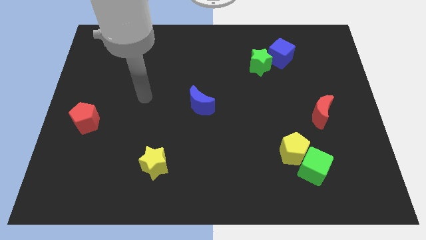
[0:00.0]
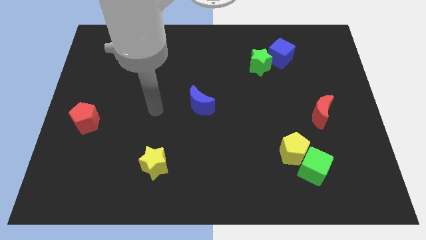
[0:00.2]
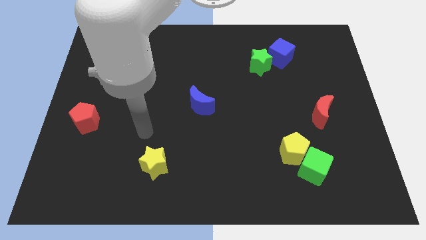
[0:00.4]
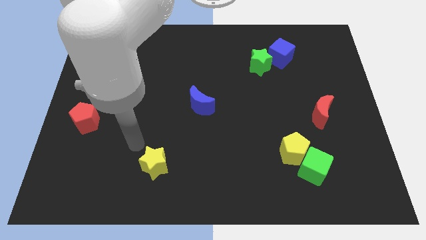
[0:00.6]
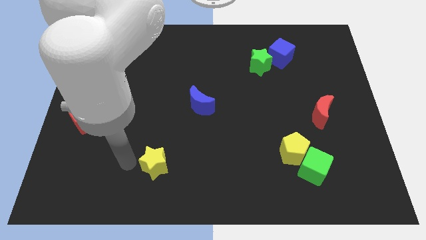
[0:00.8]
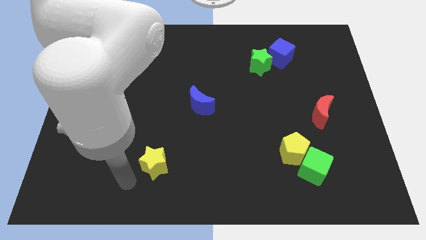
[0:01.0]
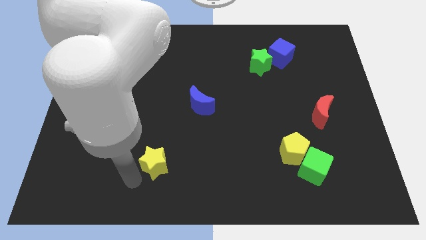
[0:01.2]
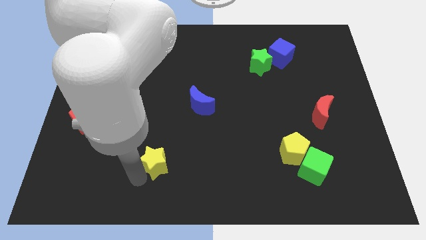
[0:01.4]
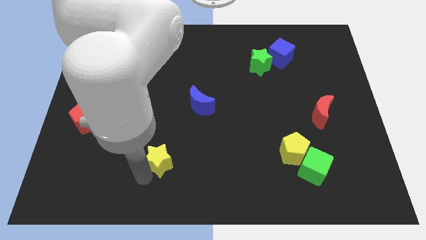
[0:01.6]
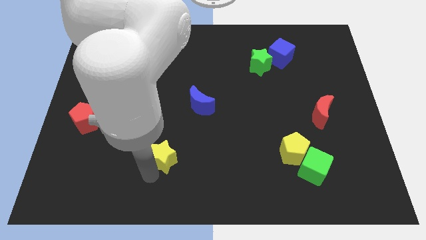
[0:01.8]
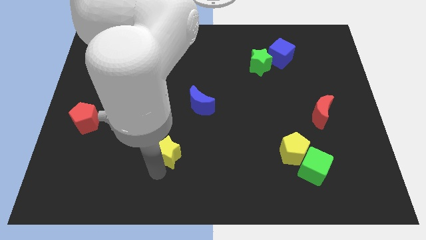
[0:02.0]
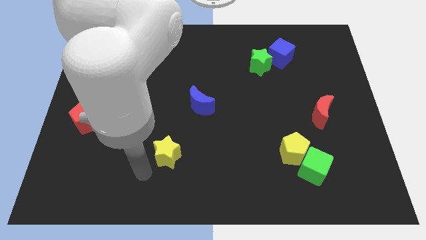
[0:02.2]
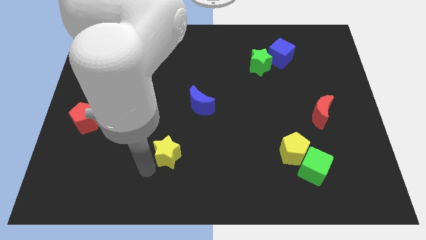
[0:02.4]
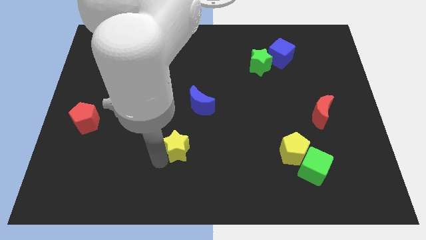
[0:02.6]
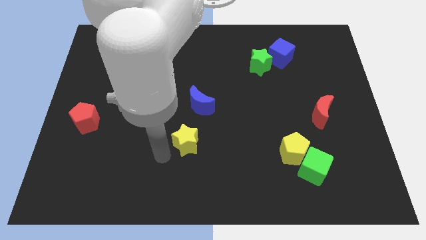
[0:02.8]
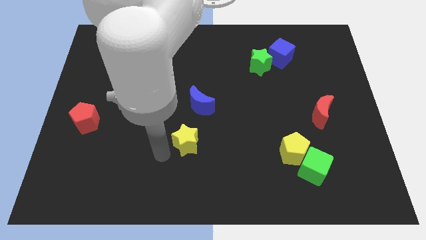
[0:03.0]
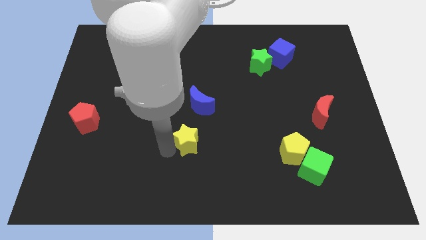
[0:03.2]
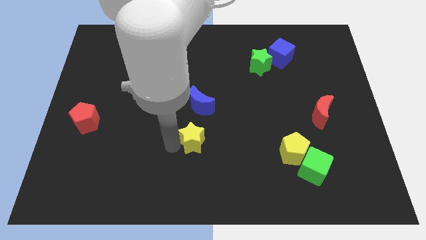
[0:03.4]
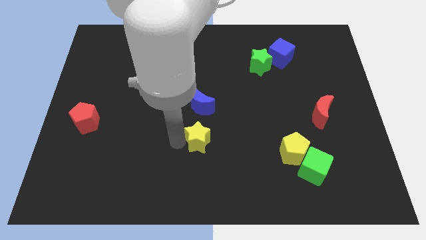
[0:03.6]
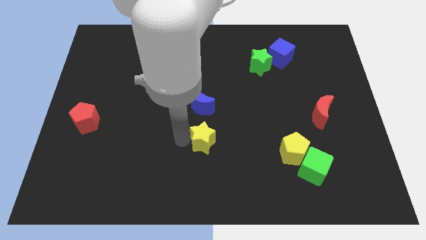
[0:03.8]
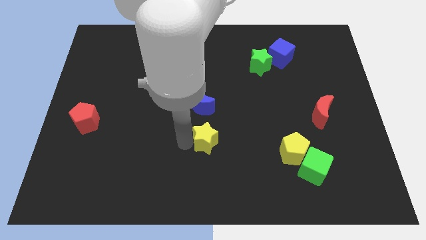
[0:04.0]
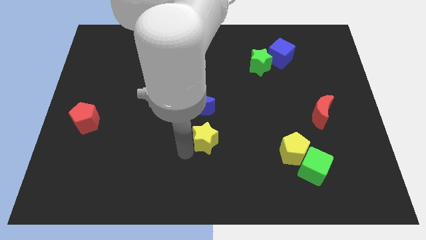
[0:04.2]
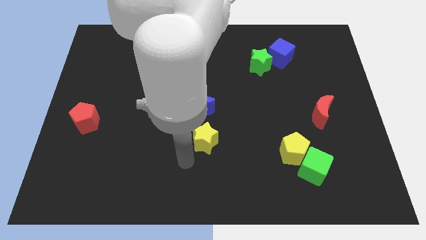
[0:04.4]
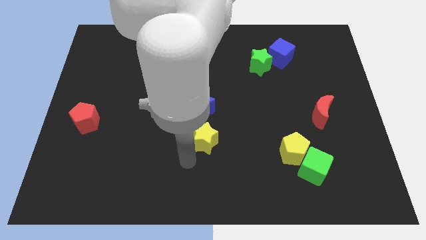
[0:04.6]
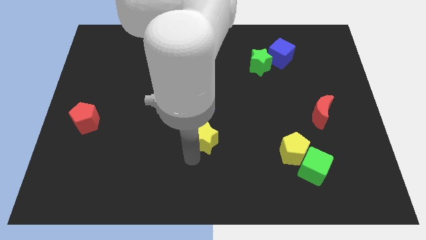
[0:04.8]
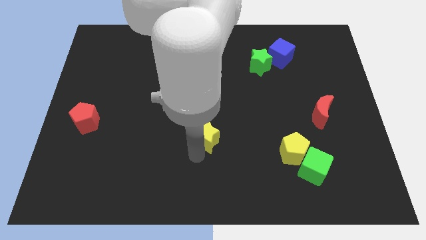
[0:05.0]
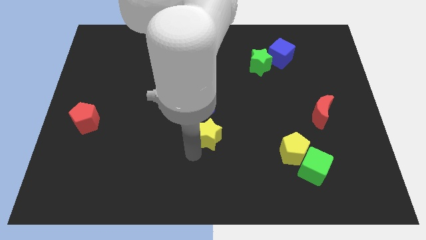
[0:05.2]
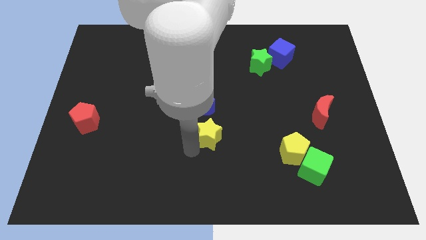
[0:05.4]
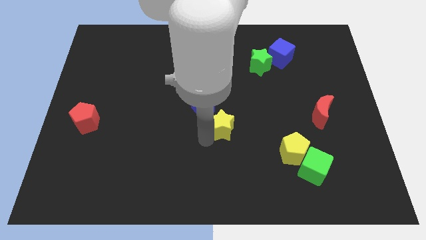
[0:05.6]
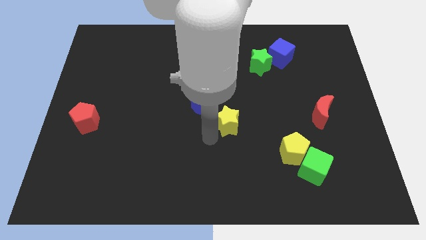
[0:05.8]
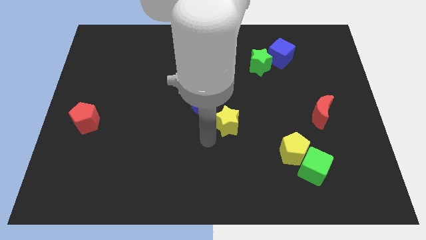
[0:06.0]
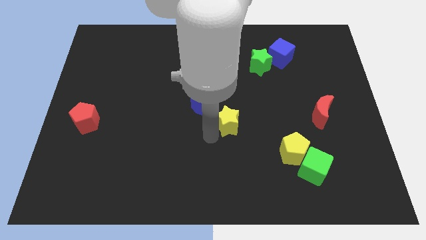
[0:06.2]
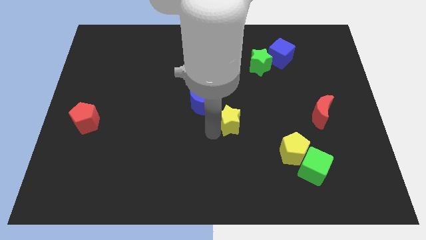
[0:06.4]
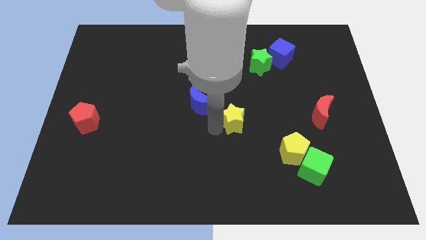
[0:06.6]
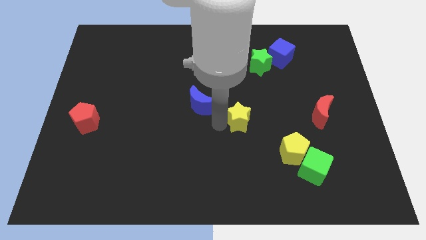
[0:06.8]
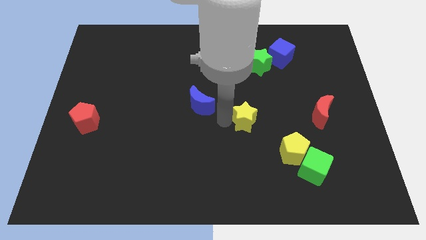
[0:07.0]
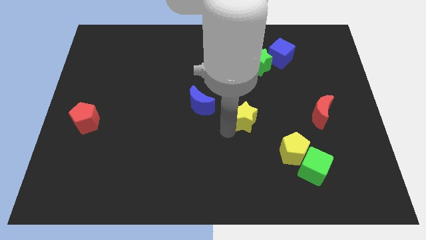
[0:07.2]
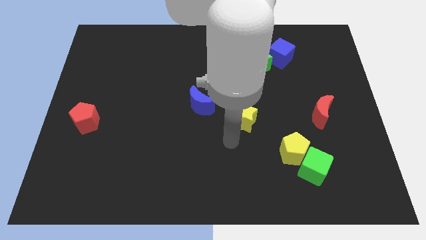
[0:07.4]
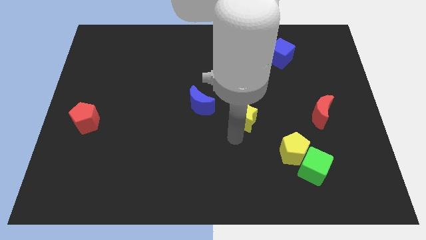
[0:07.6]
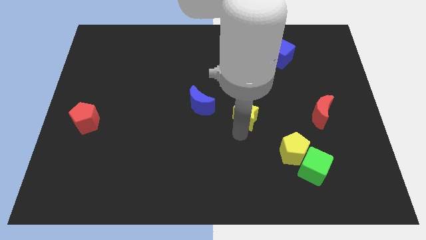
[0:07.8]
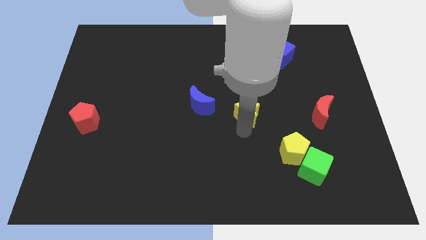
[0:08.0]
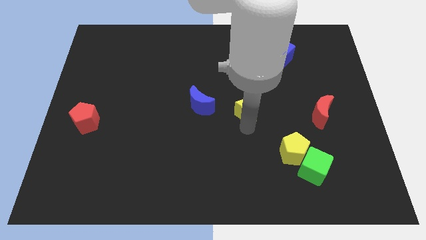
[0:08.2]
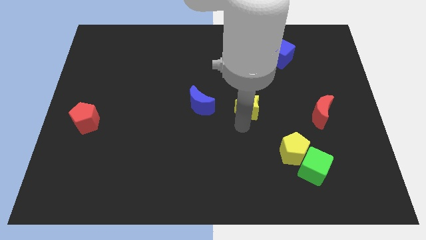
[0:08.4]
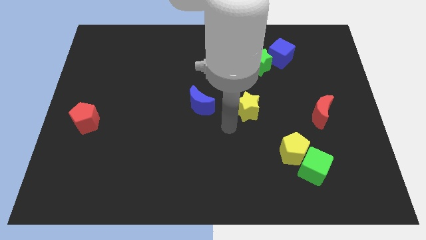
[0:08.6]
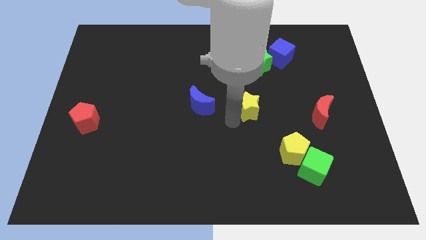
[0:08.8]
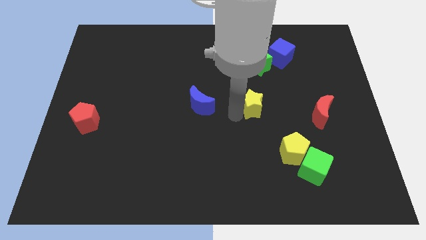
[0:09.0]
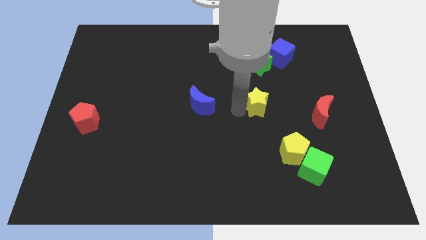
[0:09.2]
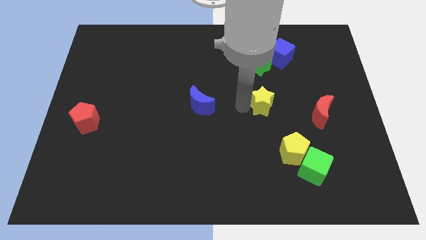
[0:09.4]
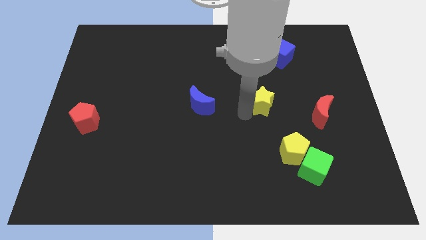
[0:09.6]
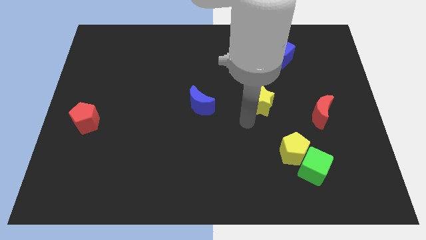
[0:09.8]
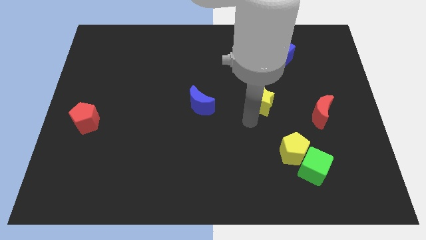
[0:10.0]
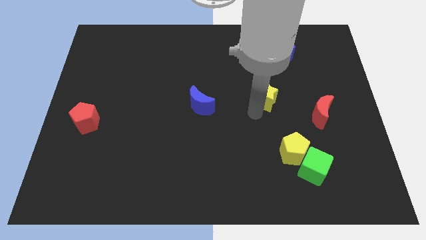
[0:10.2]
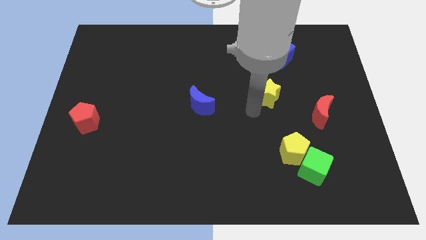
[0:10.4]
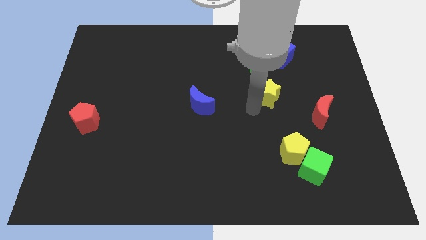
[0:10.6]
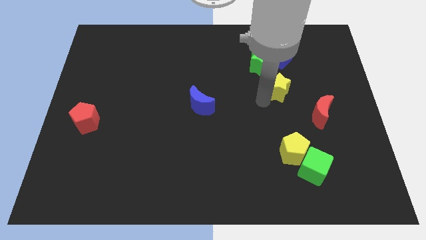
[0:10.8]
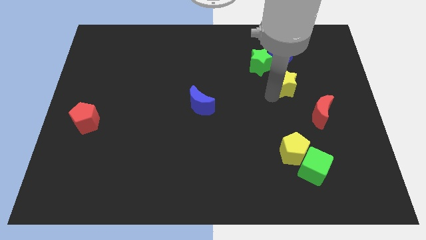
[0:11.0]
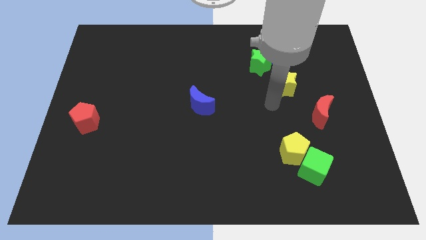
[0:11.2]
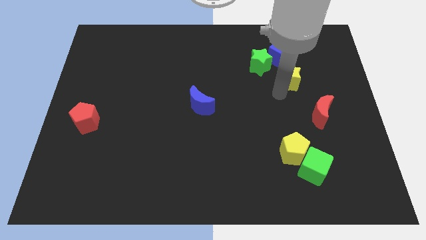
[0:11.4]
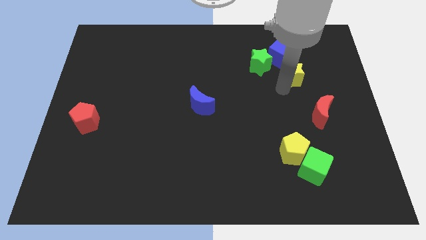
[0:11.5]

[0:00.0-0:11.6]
push the yellow star to the right of the green star

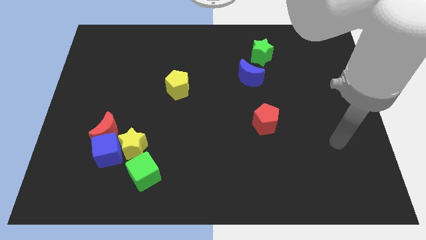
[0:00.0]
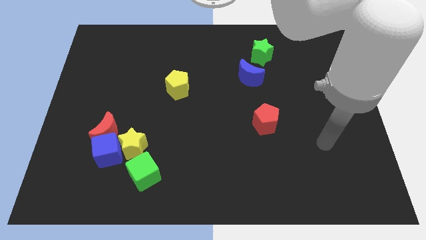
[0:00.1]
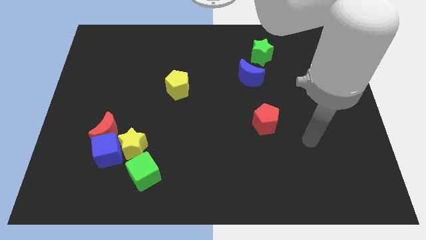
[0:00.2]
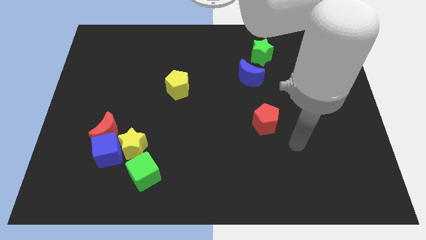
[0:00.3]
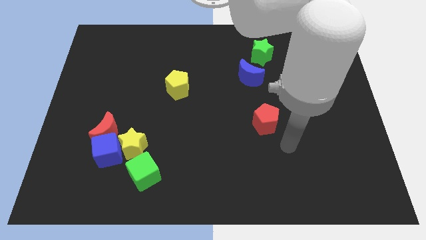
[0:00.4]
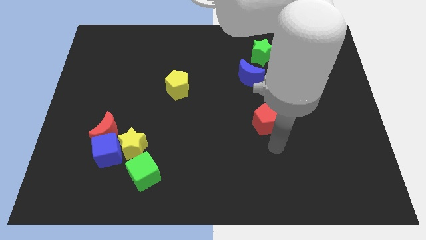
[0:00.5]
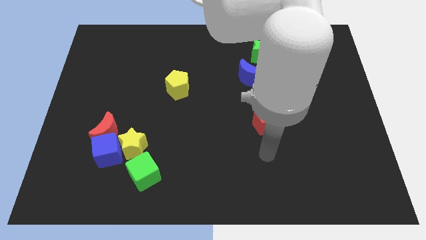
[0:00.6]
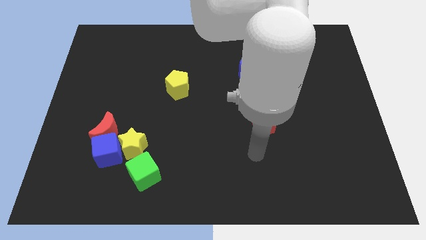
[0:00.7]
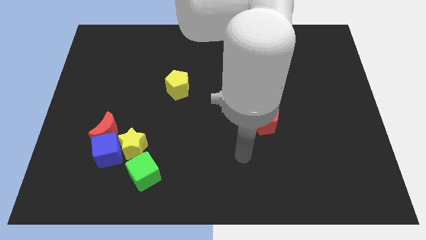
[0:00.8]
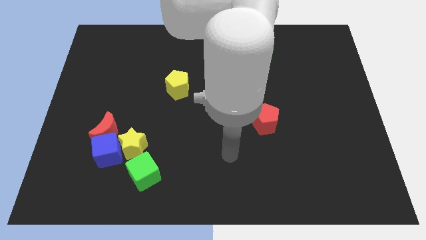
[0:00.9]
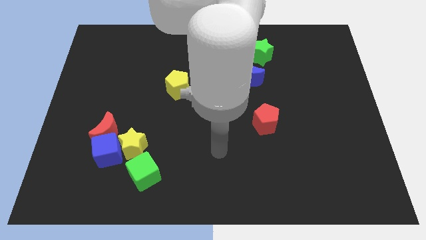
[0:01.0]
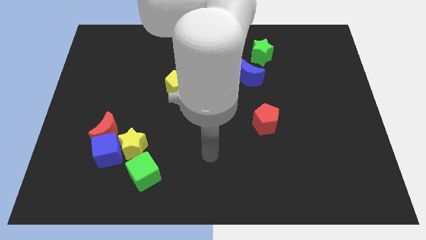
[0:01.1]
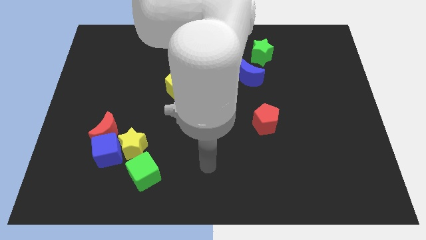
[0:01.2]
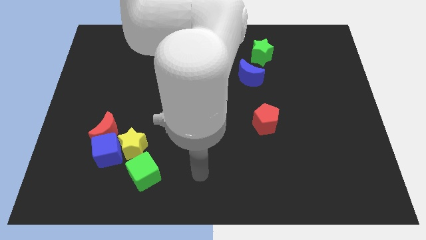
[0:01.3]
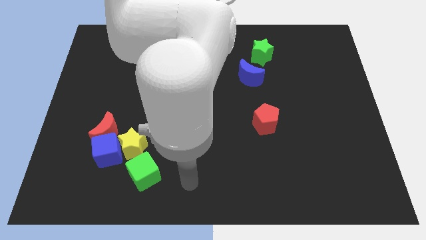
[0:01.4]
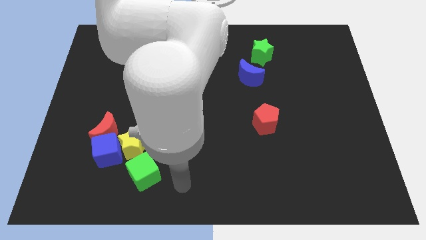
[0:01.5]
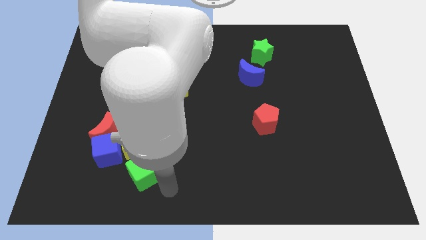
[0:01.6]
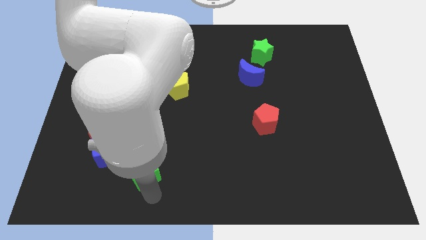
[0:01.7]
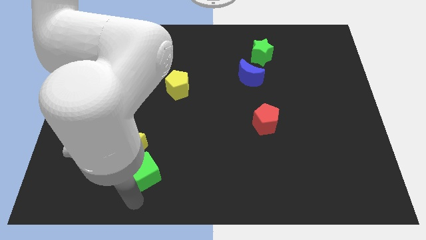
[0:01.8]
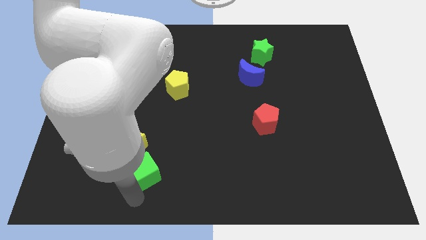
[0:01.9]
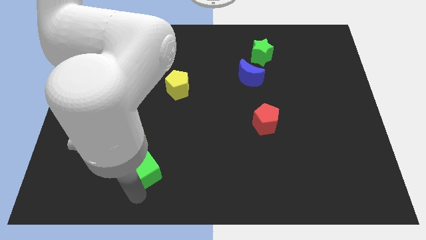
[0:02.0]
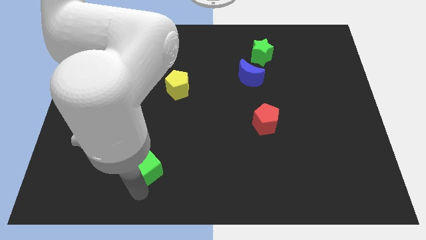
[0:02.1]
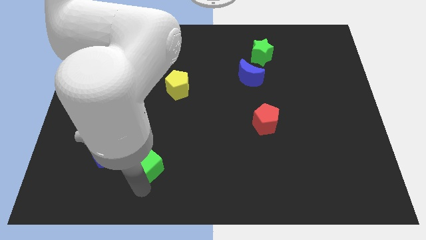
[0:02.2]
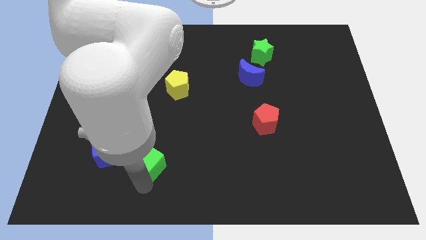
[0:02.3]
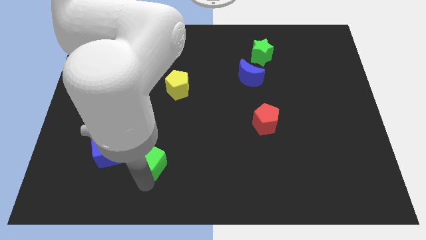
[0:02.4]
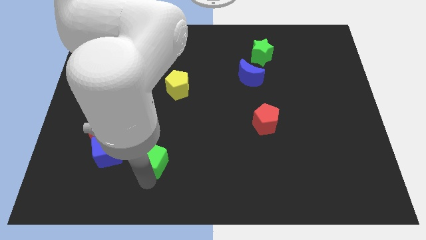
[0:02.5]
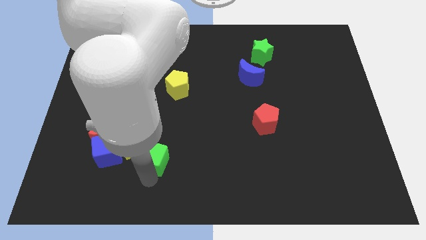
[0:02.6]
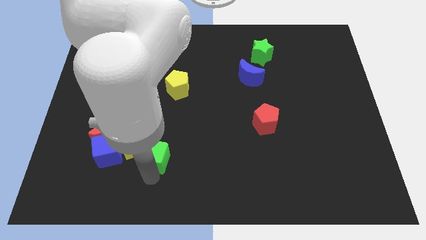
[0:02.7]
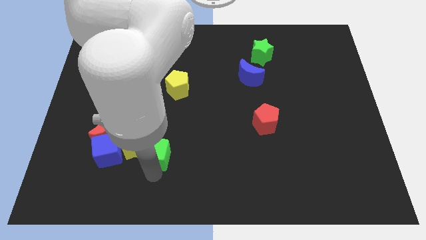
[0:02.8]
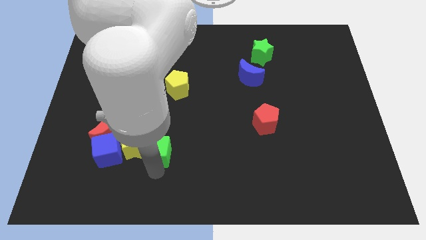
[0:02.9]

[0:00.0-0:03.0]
put the green cube right of the red moon
